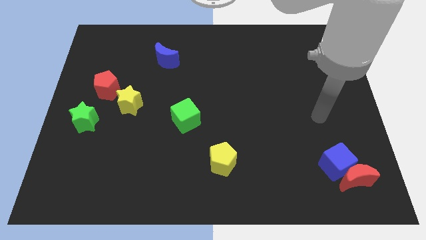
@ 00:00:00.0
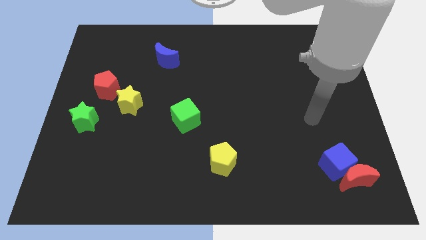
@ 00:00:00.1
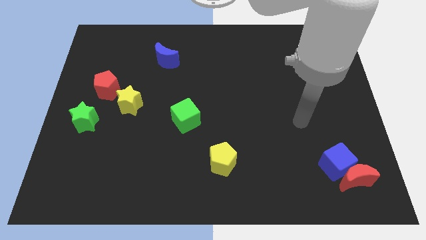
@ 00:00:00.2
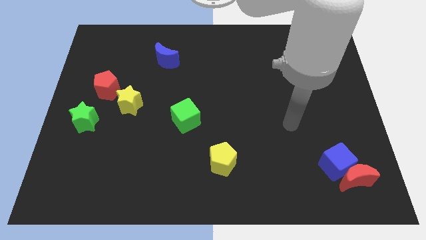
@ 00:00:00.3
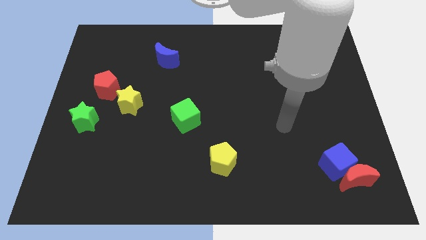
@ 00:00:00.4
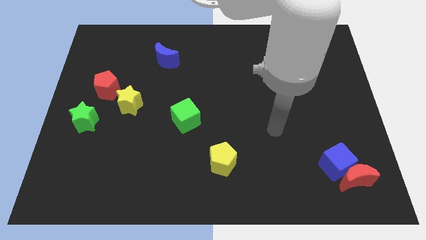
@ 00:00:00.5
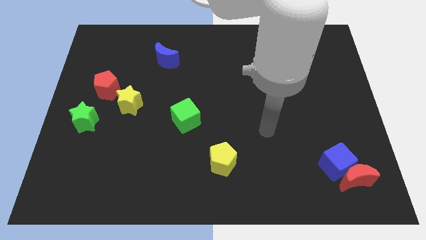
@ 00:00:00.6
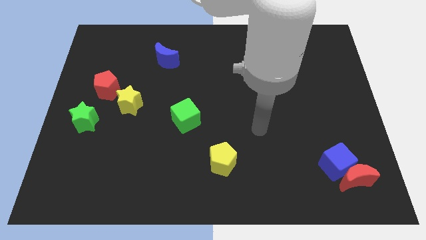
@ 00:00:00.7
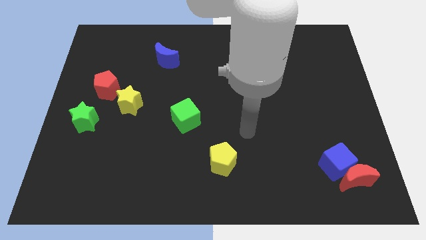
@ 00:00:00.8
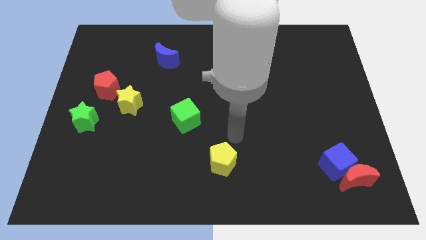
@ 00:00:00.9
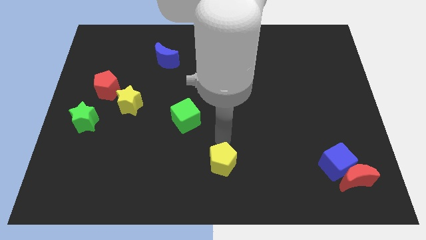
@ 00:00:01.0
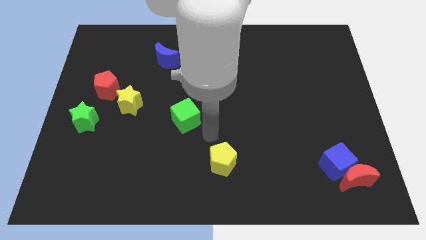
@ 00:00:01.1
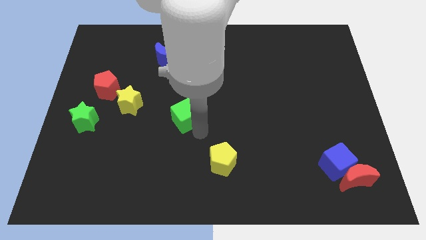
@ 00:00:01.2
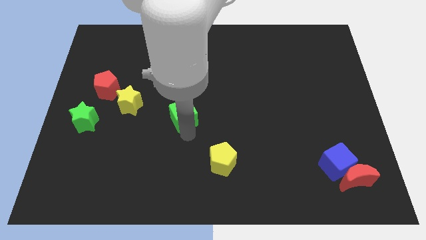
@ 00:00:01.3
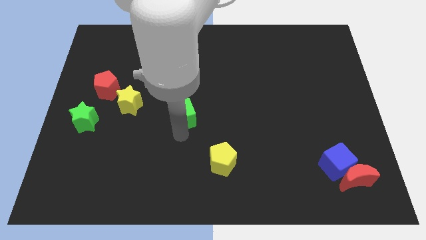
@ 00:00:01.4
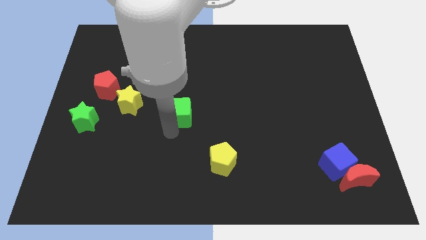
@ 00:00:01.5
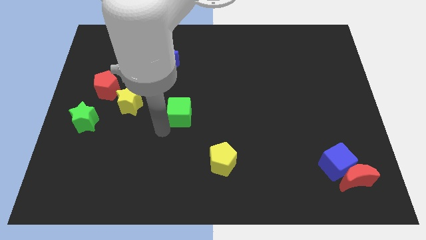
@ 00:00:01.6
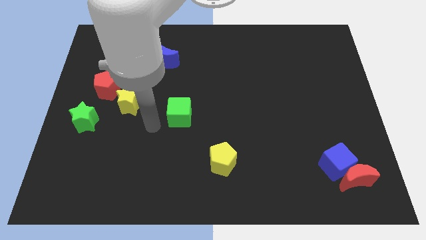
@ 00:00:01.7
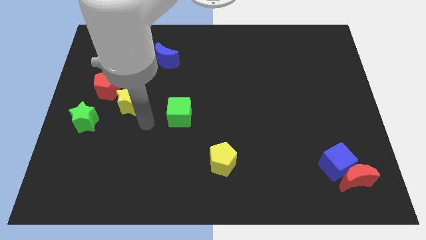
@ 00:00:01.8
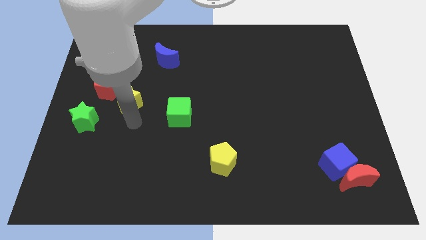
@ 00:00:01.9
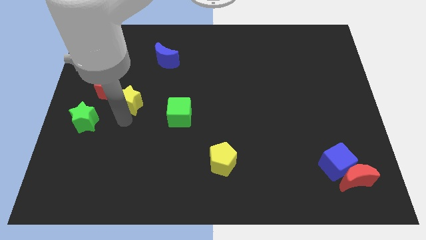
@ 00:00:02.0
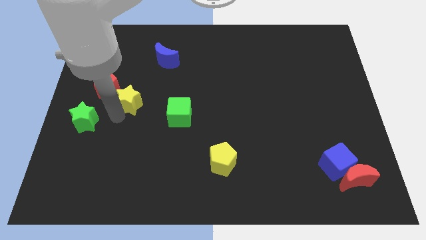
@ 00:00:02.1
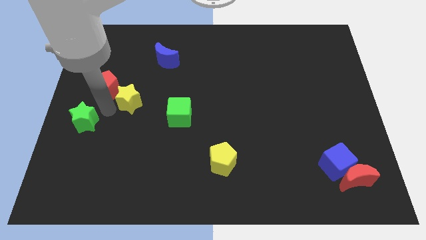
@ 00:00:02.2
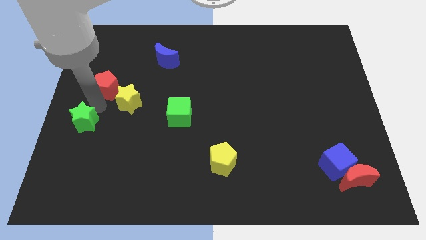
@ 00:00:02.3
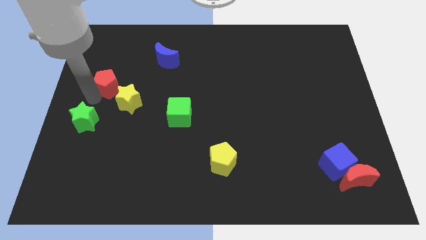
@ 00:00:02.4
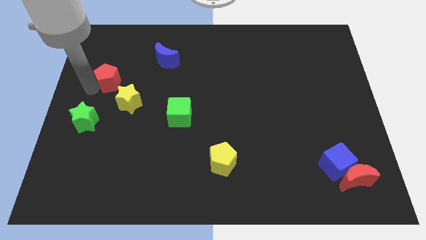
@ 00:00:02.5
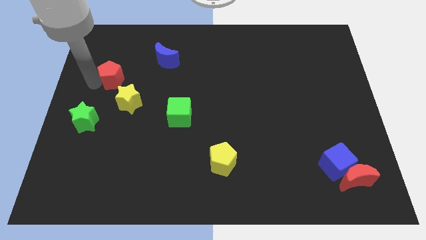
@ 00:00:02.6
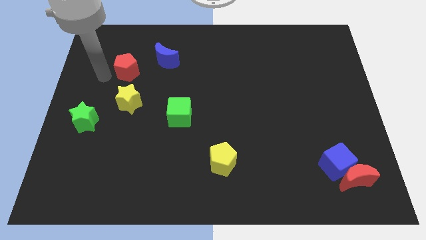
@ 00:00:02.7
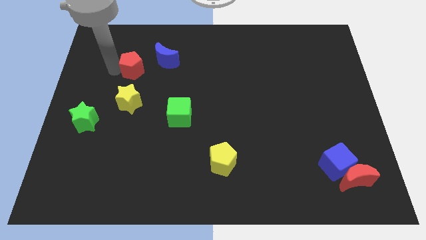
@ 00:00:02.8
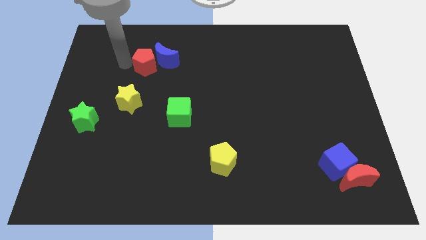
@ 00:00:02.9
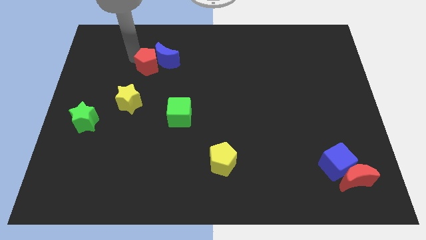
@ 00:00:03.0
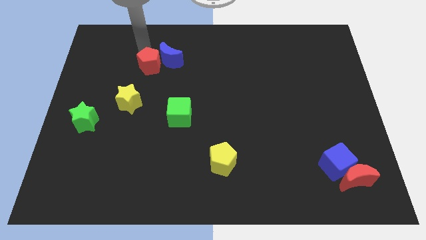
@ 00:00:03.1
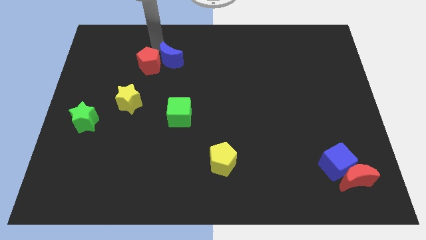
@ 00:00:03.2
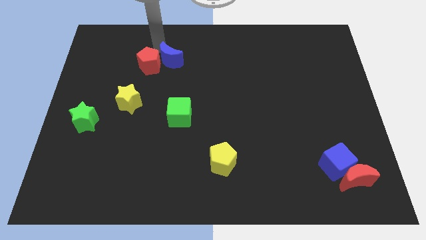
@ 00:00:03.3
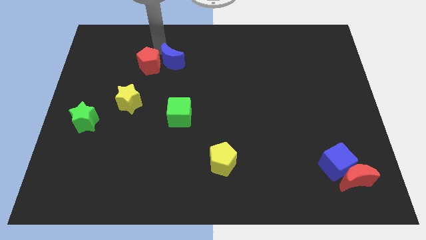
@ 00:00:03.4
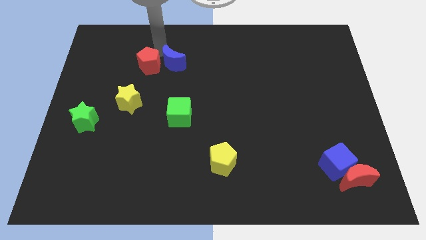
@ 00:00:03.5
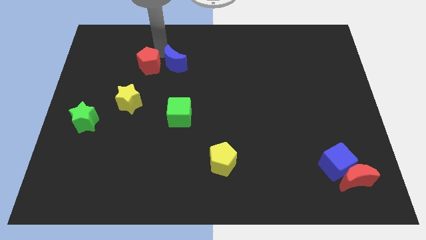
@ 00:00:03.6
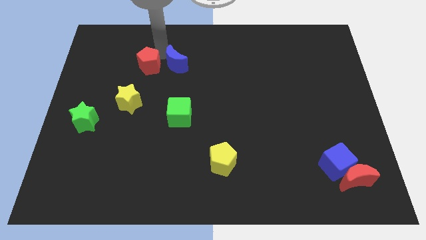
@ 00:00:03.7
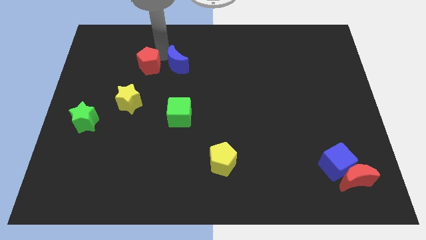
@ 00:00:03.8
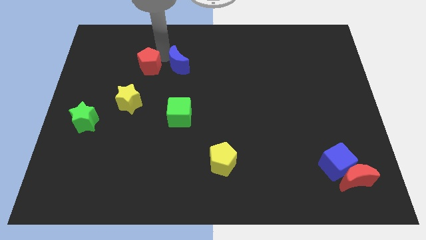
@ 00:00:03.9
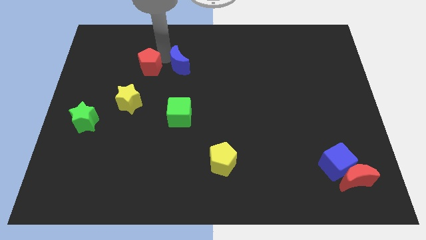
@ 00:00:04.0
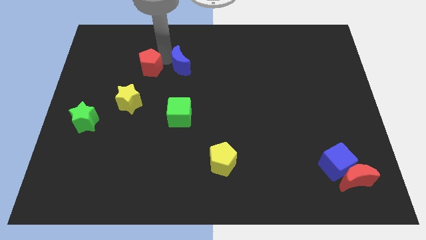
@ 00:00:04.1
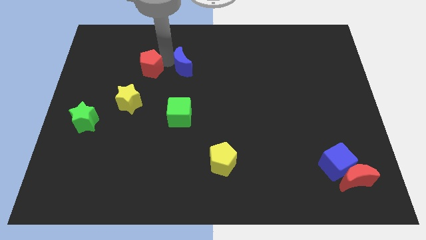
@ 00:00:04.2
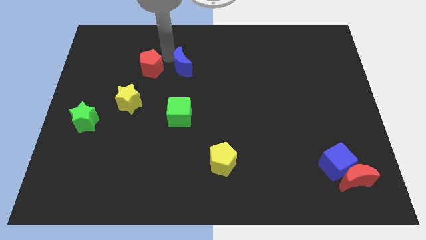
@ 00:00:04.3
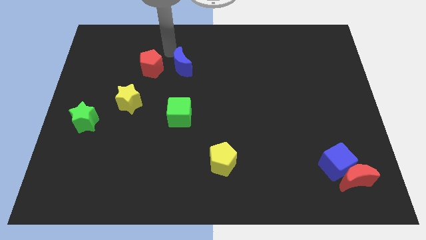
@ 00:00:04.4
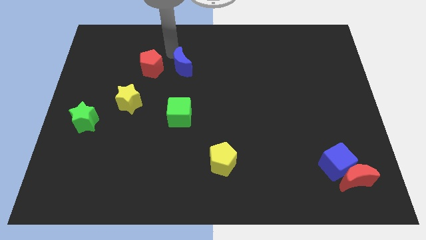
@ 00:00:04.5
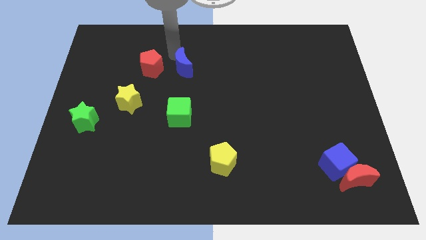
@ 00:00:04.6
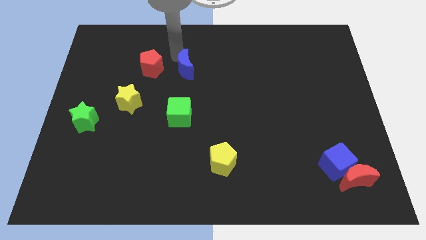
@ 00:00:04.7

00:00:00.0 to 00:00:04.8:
push the blue moon to the middle

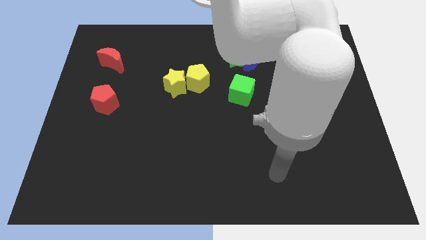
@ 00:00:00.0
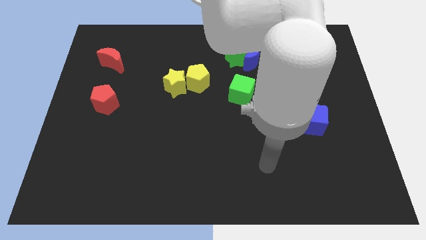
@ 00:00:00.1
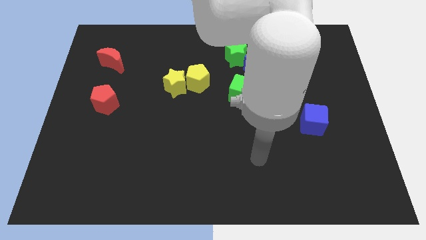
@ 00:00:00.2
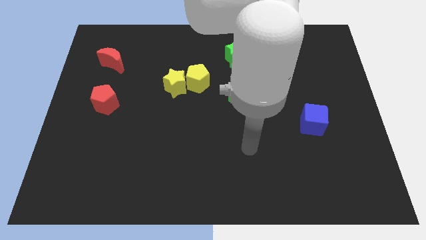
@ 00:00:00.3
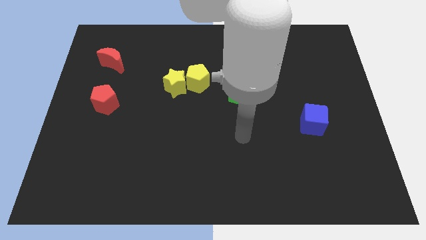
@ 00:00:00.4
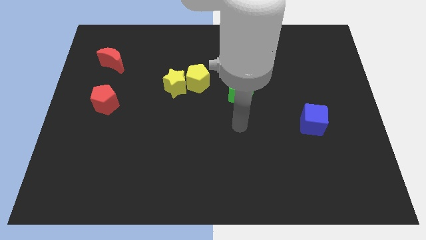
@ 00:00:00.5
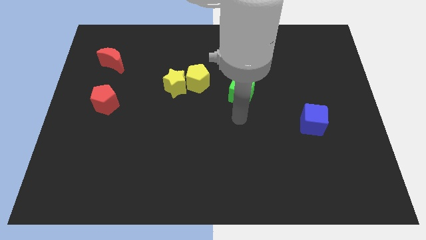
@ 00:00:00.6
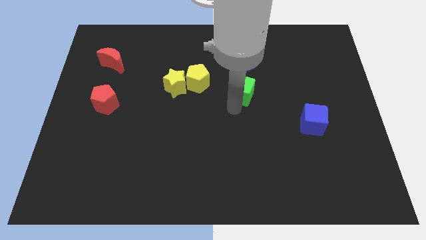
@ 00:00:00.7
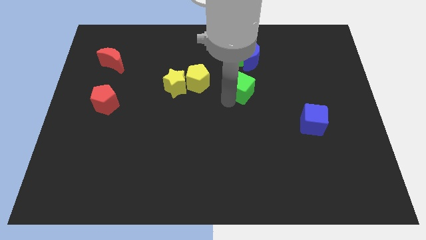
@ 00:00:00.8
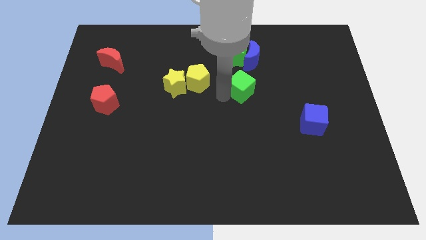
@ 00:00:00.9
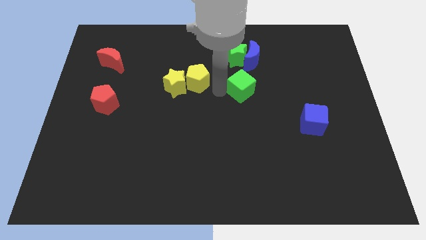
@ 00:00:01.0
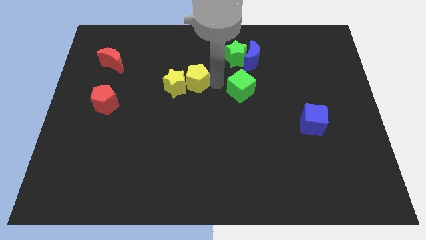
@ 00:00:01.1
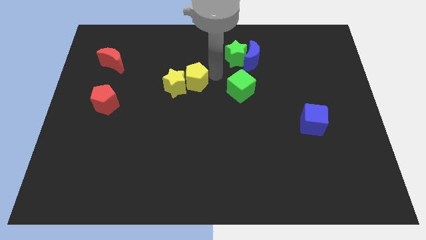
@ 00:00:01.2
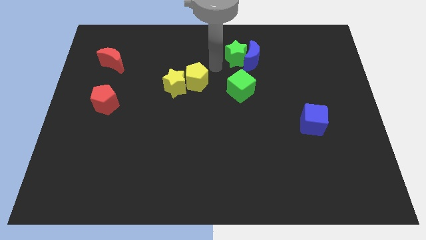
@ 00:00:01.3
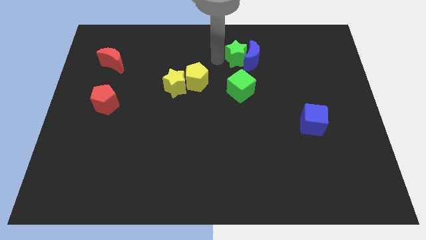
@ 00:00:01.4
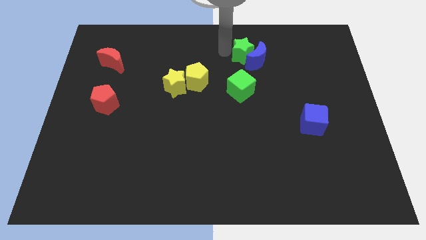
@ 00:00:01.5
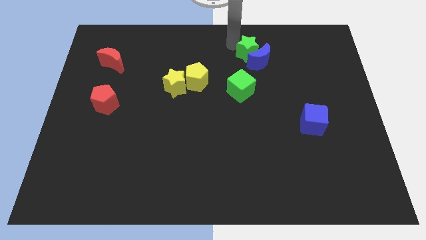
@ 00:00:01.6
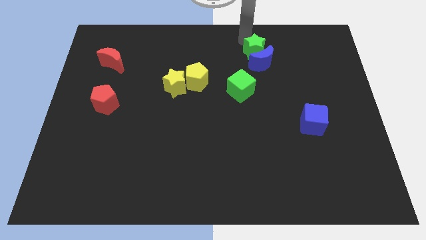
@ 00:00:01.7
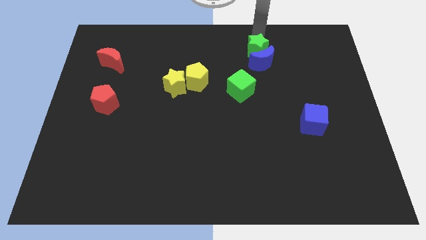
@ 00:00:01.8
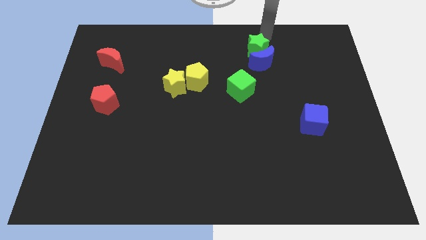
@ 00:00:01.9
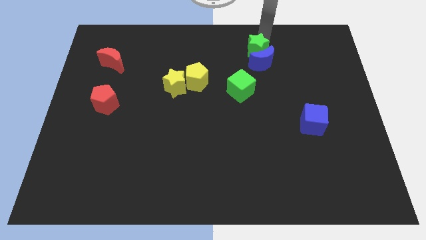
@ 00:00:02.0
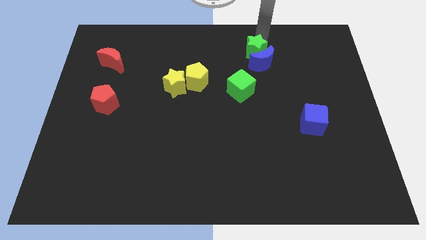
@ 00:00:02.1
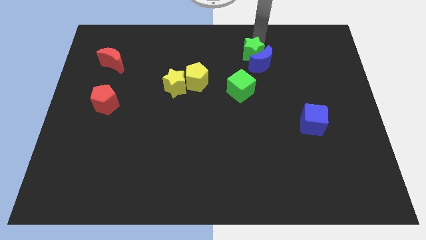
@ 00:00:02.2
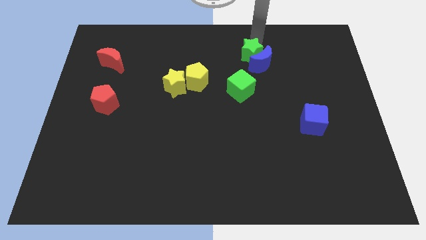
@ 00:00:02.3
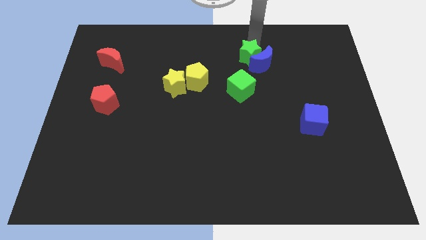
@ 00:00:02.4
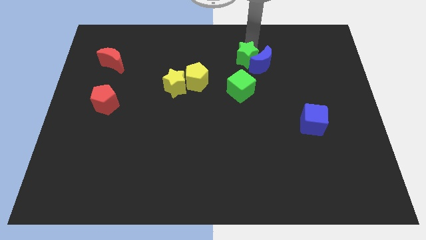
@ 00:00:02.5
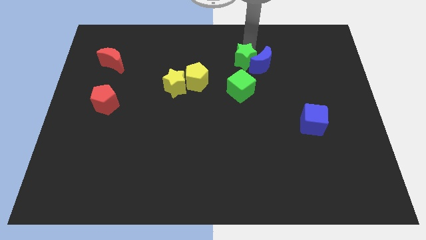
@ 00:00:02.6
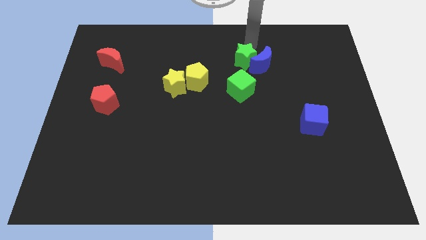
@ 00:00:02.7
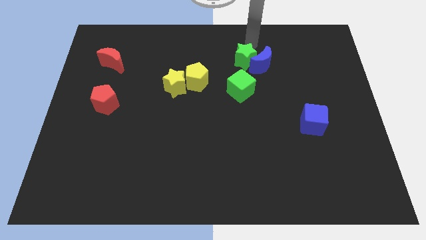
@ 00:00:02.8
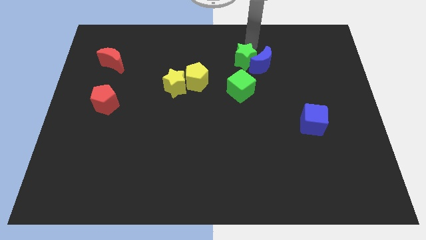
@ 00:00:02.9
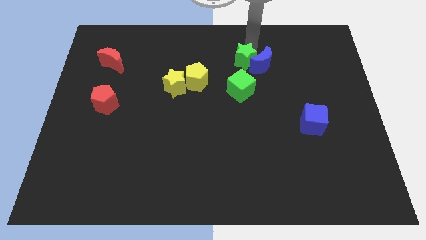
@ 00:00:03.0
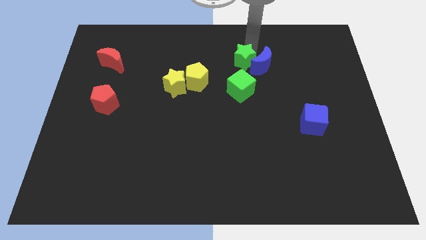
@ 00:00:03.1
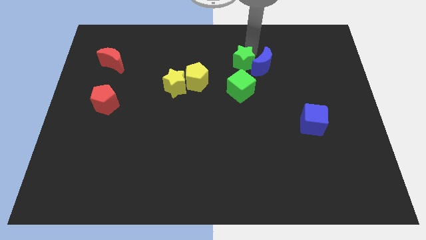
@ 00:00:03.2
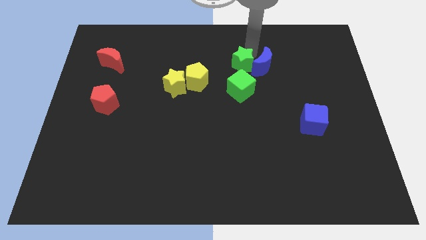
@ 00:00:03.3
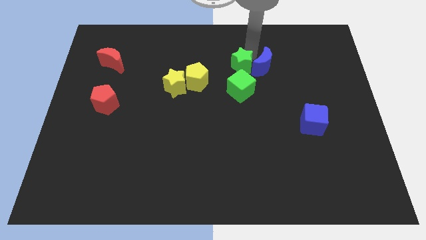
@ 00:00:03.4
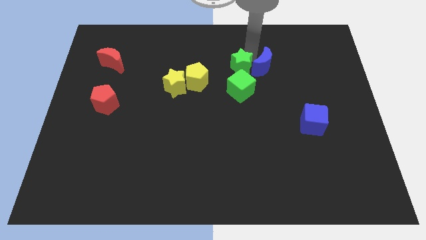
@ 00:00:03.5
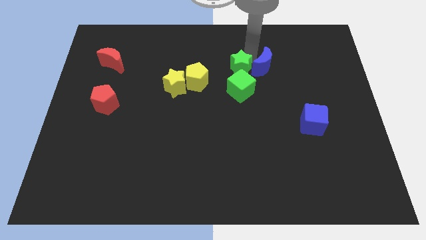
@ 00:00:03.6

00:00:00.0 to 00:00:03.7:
put the green star to the middle of the board
